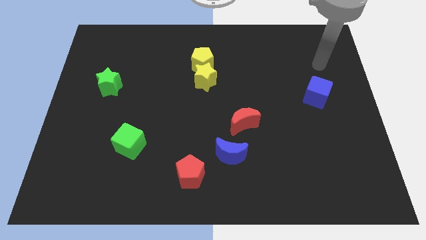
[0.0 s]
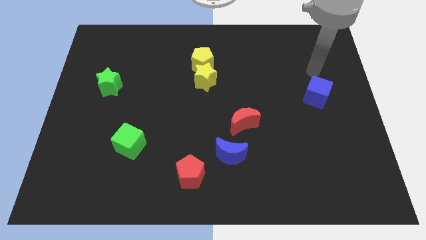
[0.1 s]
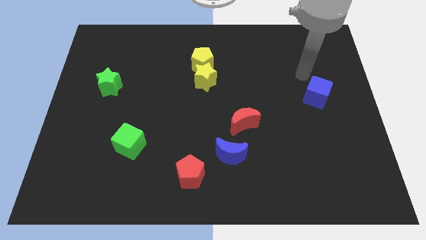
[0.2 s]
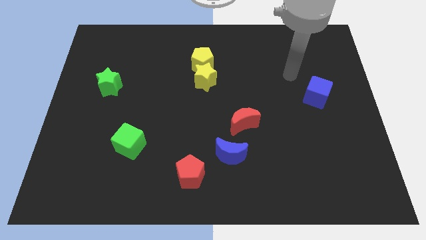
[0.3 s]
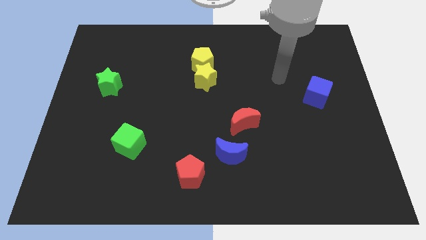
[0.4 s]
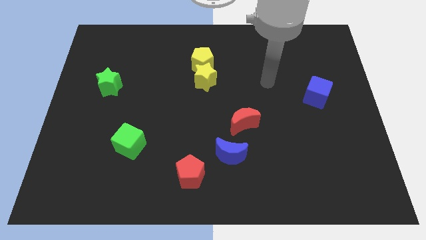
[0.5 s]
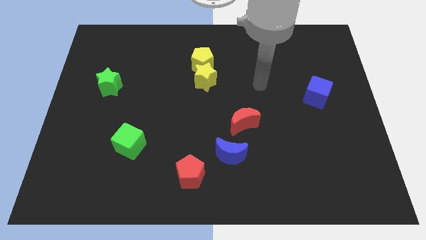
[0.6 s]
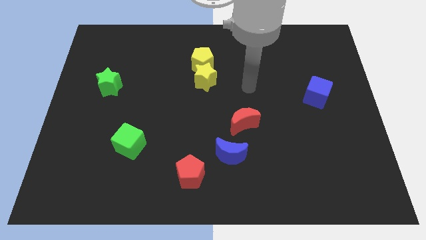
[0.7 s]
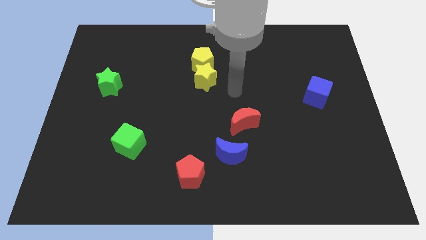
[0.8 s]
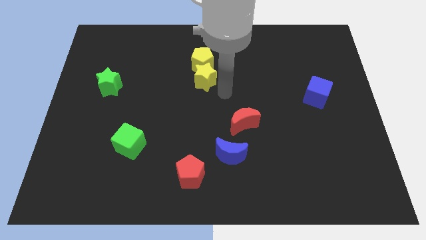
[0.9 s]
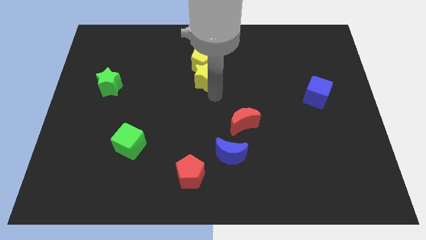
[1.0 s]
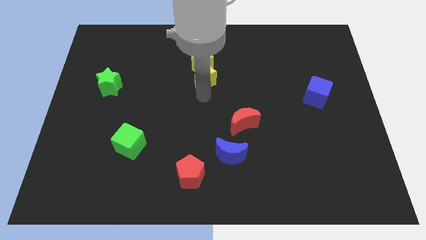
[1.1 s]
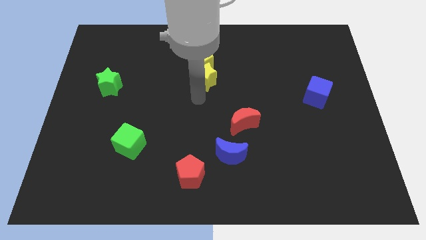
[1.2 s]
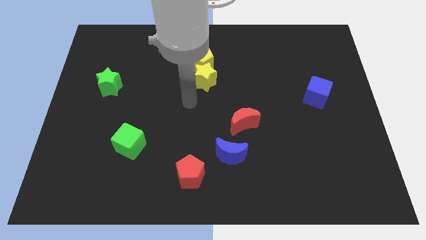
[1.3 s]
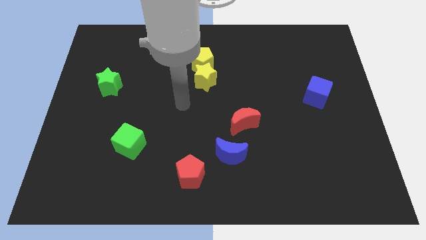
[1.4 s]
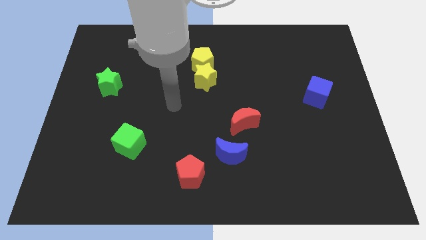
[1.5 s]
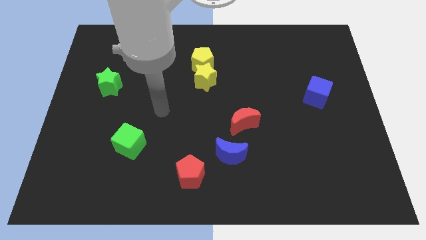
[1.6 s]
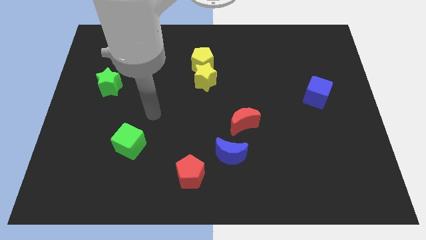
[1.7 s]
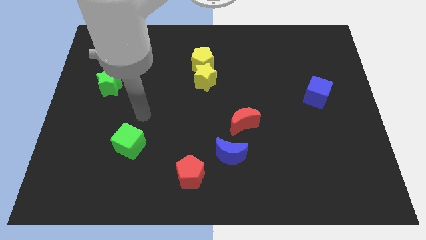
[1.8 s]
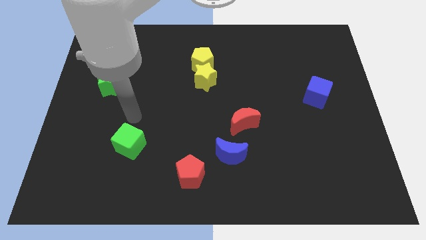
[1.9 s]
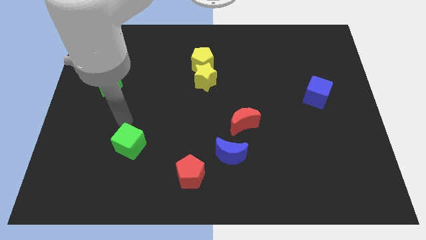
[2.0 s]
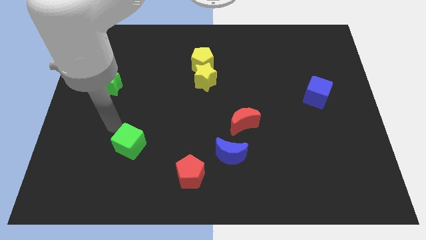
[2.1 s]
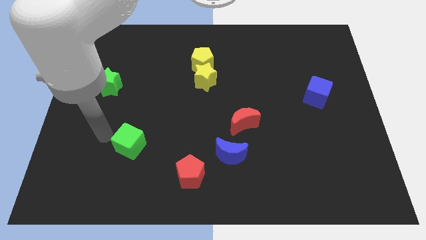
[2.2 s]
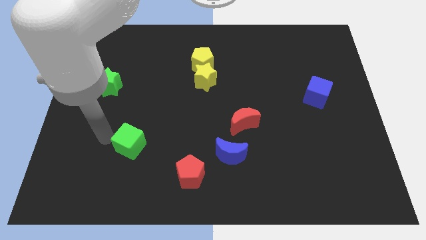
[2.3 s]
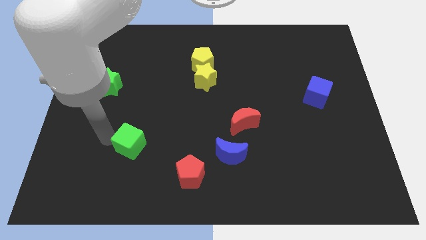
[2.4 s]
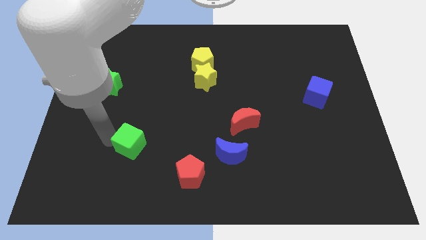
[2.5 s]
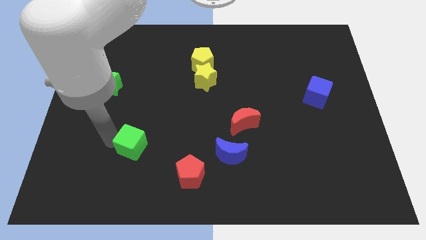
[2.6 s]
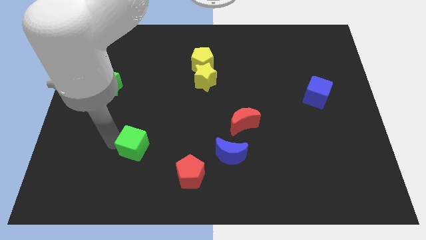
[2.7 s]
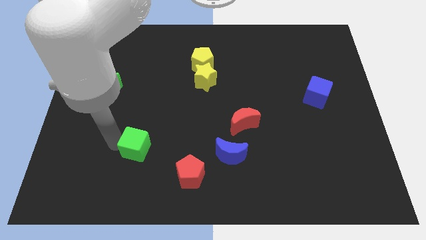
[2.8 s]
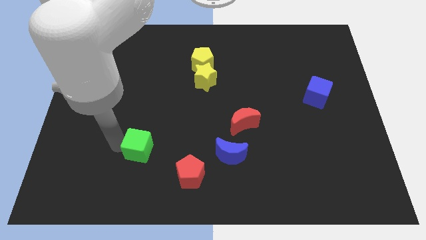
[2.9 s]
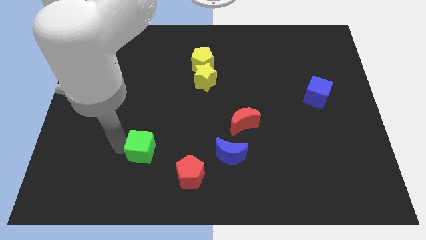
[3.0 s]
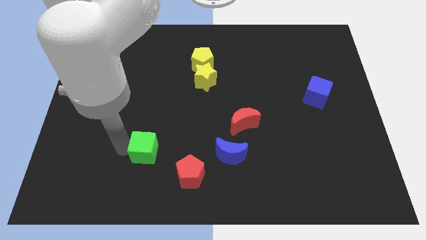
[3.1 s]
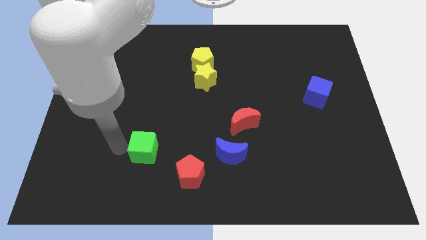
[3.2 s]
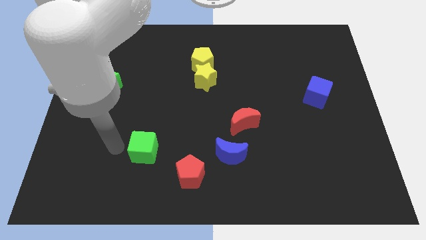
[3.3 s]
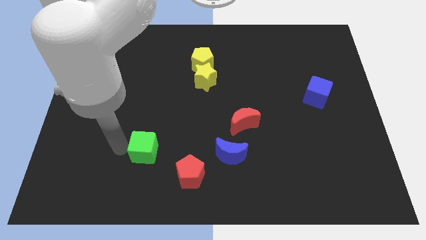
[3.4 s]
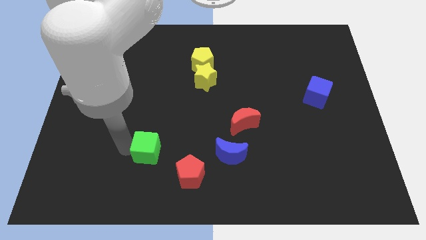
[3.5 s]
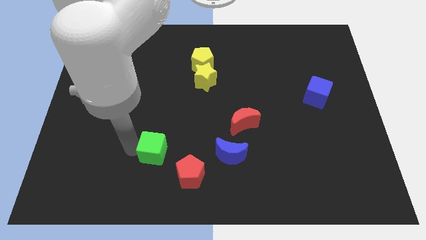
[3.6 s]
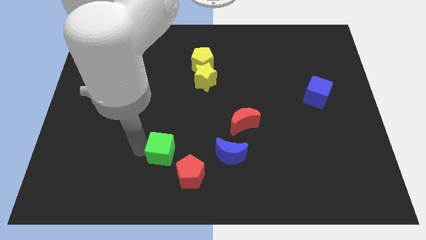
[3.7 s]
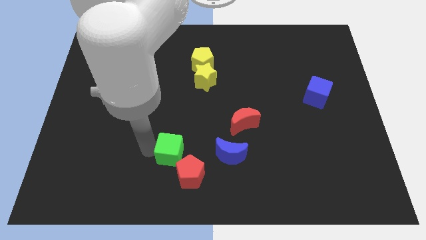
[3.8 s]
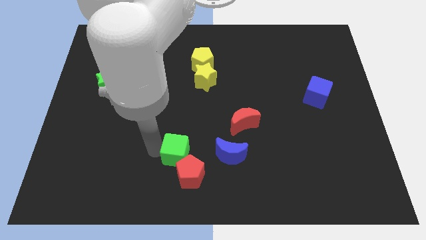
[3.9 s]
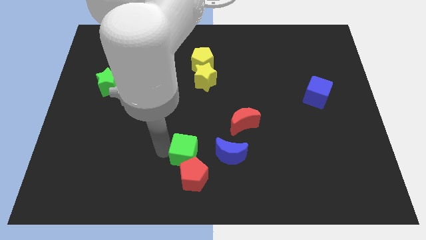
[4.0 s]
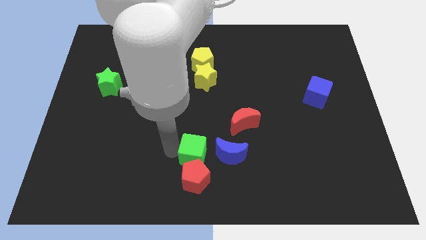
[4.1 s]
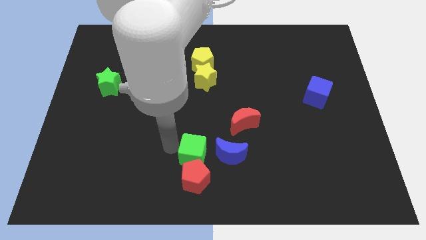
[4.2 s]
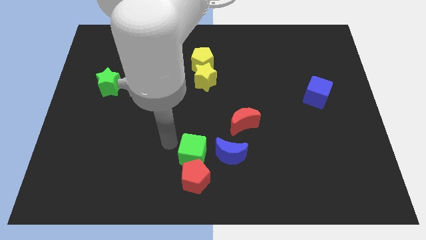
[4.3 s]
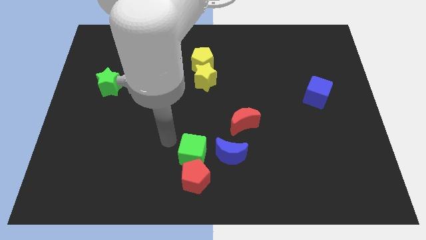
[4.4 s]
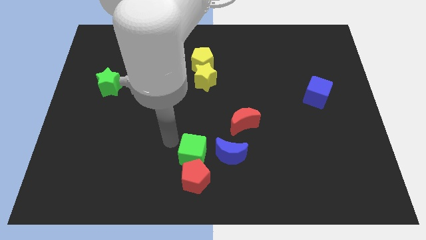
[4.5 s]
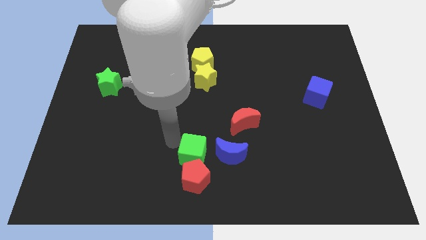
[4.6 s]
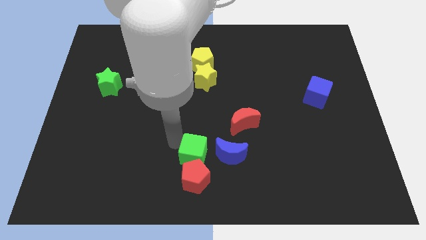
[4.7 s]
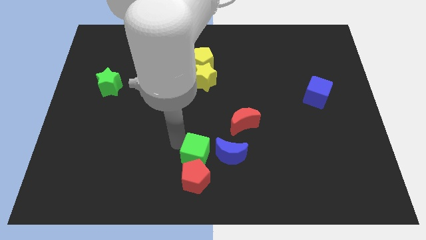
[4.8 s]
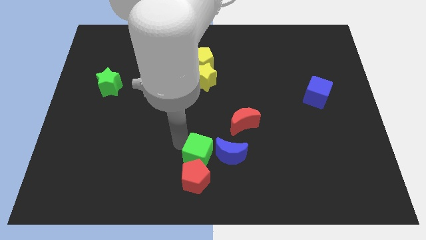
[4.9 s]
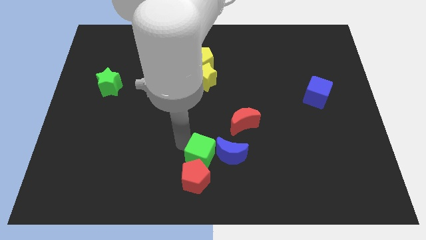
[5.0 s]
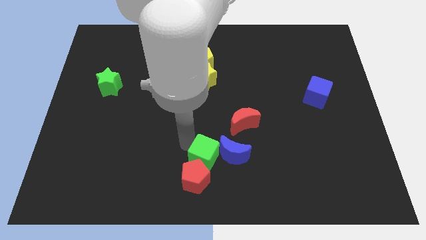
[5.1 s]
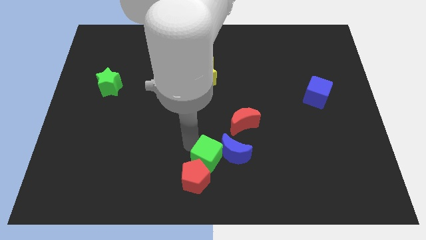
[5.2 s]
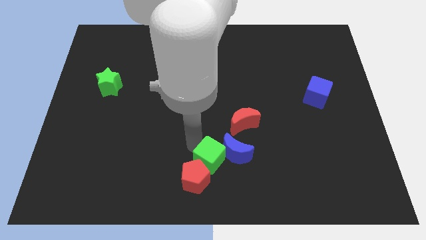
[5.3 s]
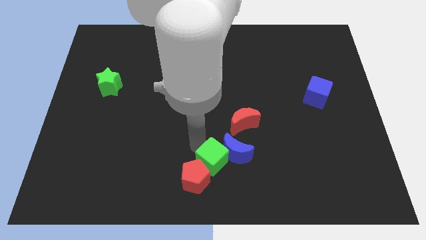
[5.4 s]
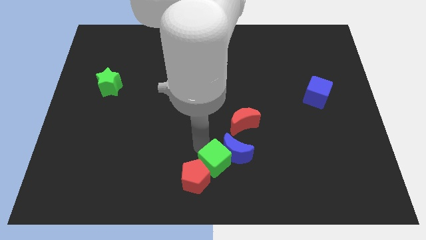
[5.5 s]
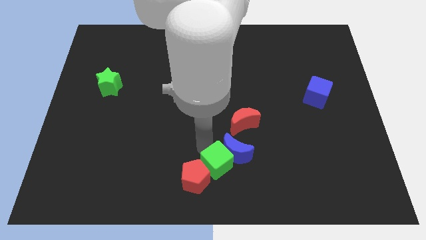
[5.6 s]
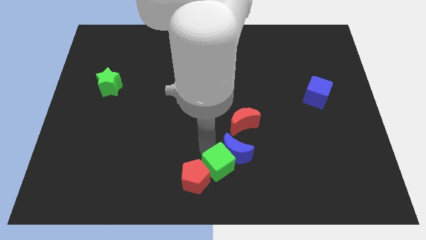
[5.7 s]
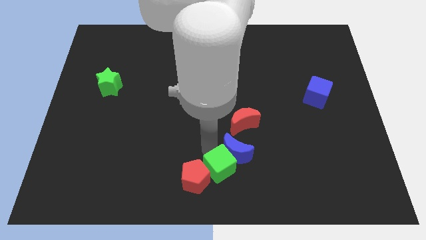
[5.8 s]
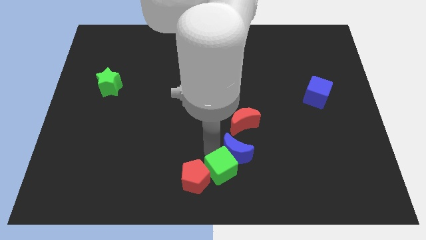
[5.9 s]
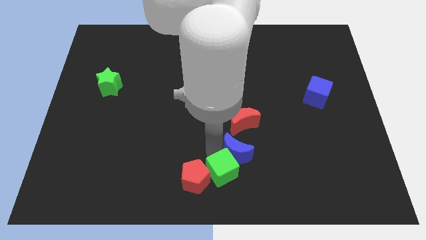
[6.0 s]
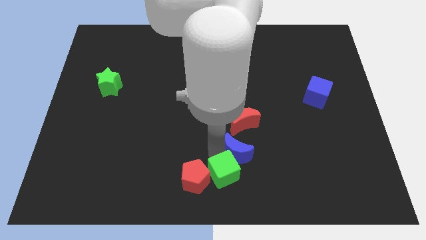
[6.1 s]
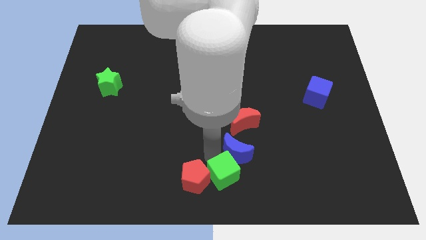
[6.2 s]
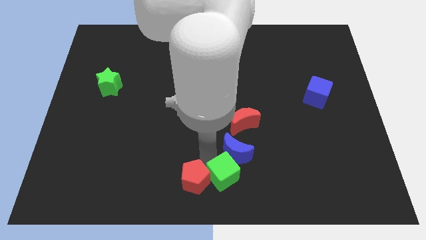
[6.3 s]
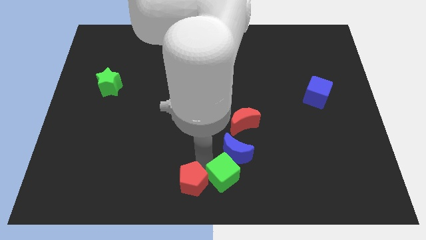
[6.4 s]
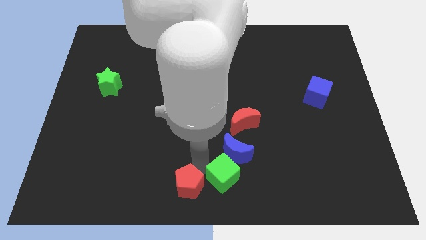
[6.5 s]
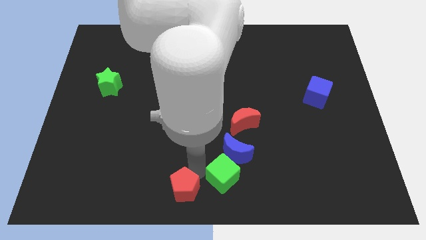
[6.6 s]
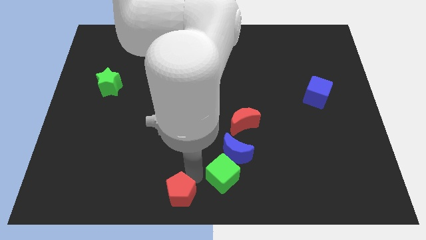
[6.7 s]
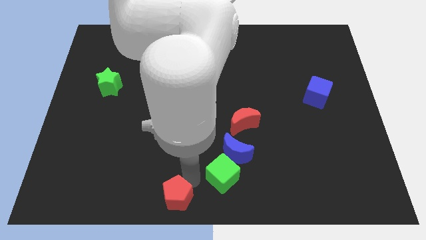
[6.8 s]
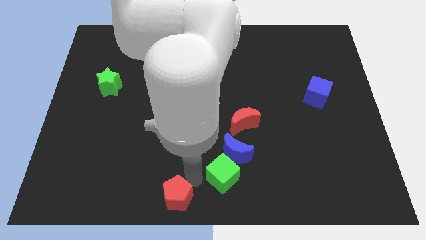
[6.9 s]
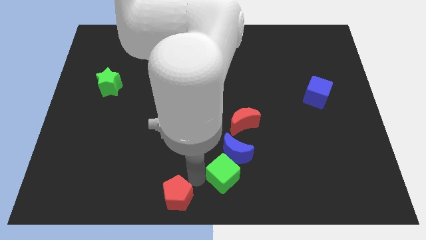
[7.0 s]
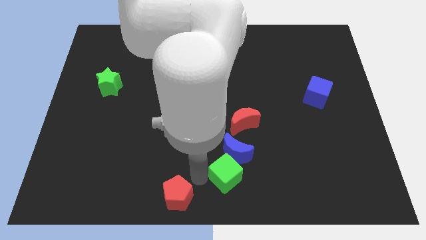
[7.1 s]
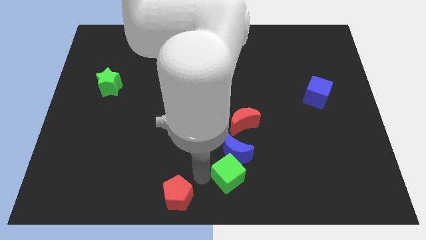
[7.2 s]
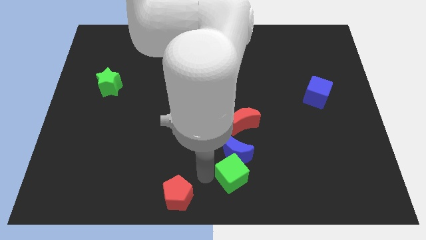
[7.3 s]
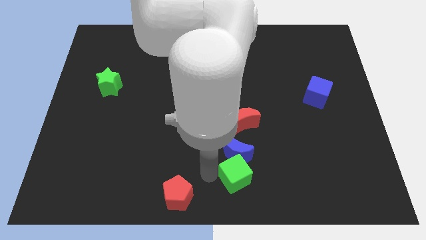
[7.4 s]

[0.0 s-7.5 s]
move the green cube right
